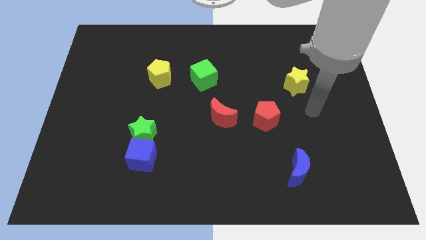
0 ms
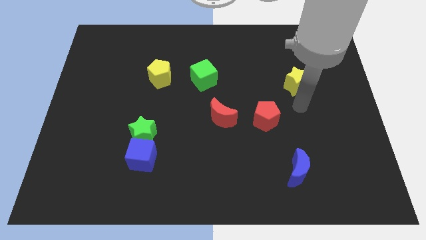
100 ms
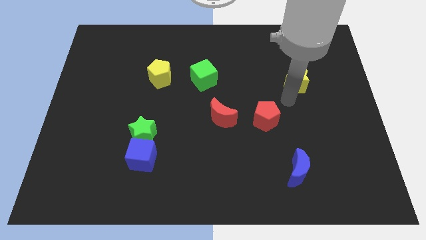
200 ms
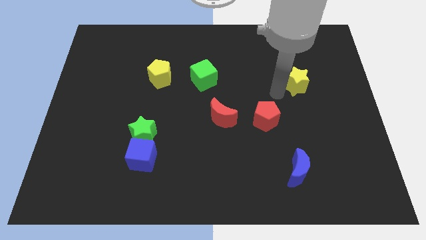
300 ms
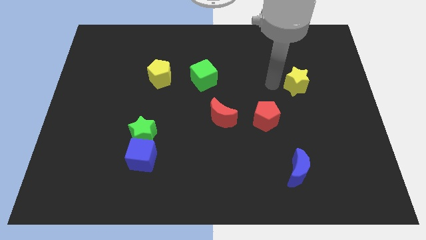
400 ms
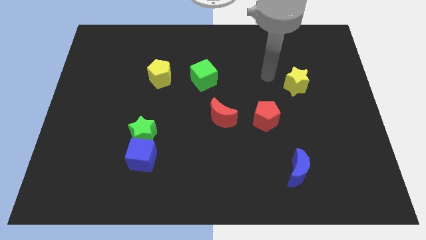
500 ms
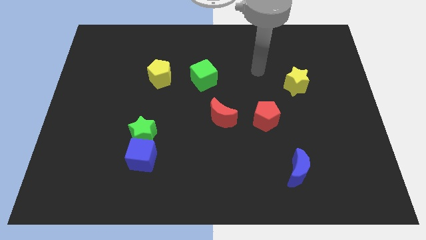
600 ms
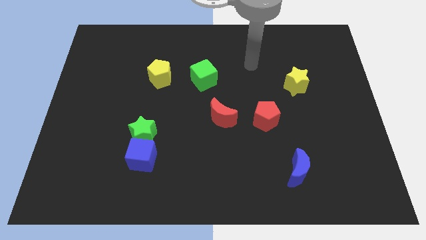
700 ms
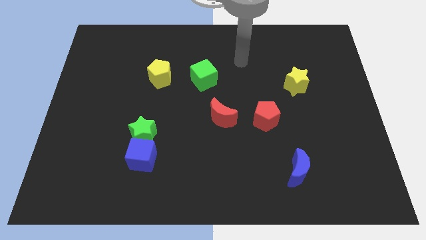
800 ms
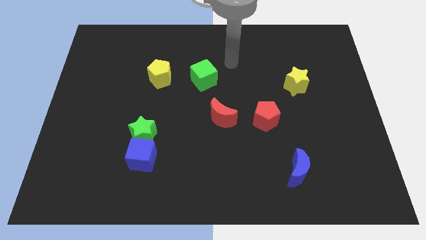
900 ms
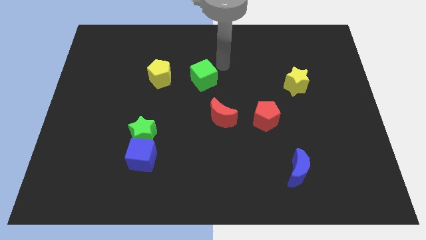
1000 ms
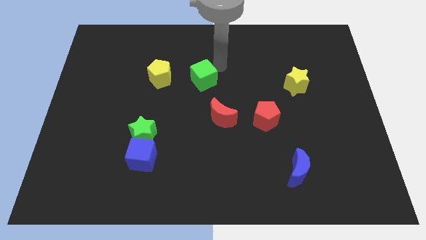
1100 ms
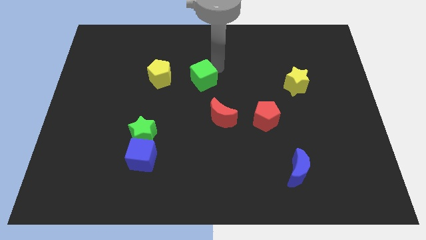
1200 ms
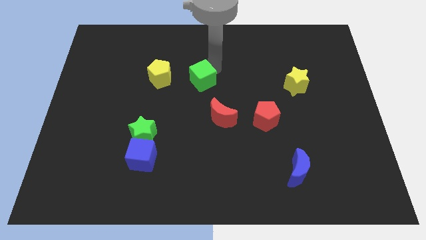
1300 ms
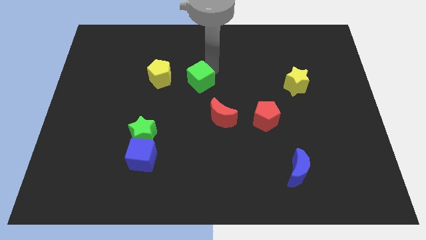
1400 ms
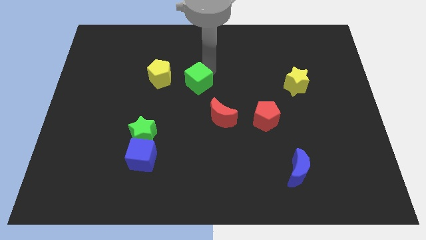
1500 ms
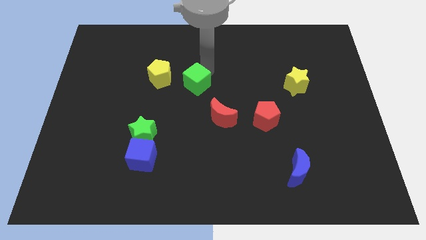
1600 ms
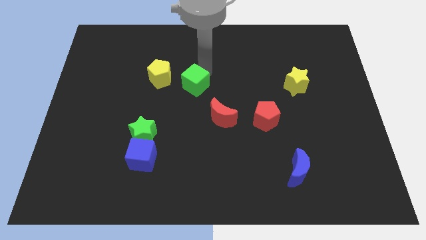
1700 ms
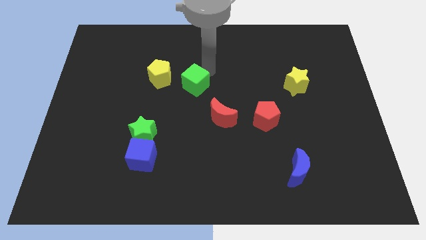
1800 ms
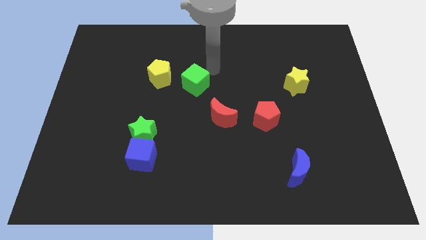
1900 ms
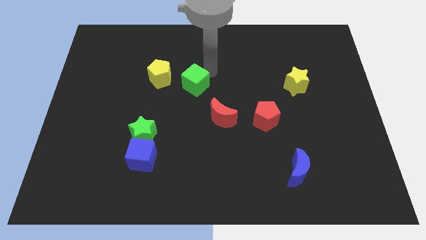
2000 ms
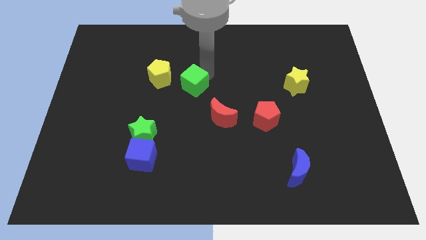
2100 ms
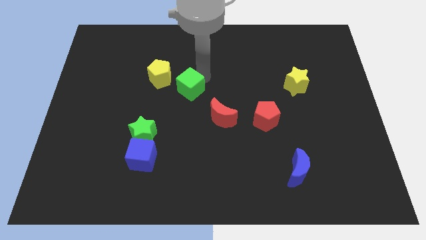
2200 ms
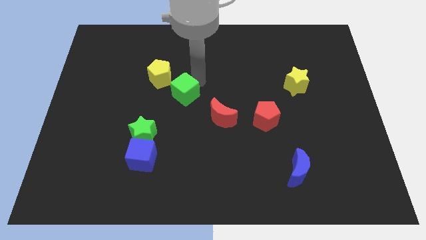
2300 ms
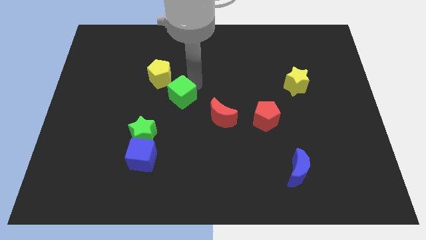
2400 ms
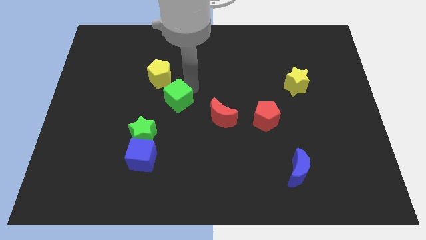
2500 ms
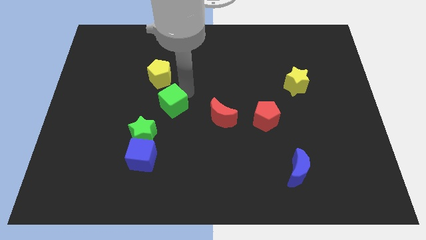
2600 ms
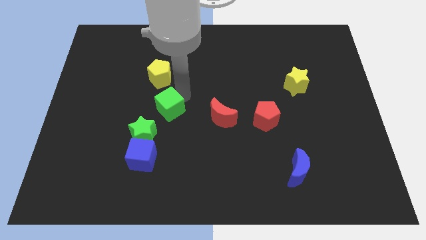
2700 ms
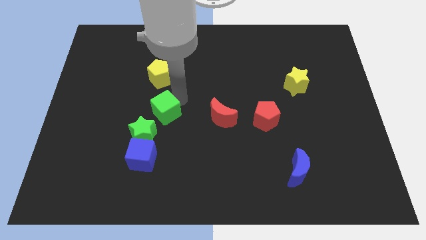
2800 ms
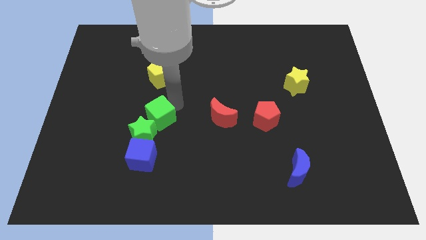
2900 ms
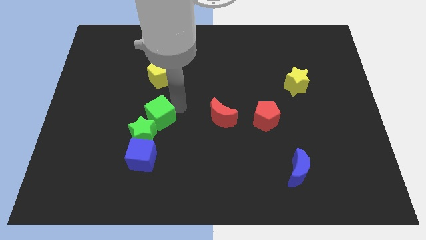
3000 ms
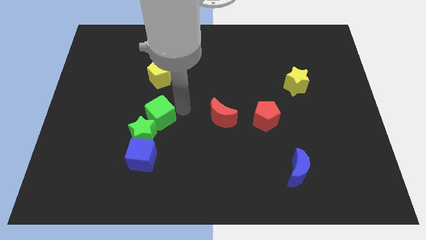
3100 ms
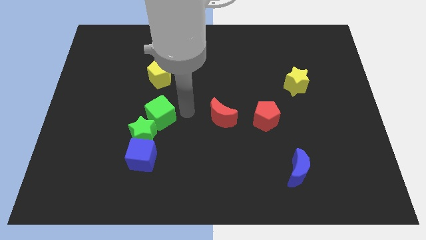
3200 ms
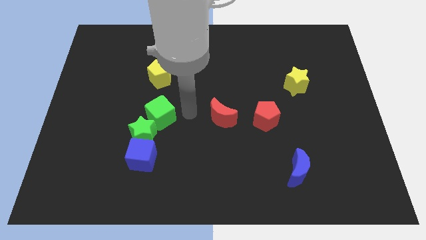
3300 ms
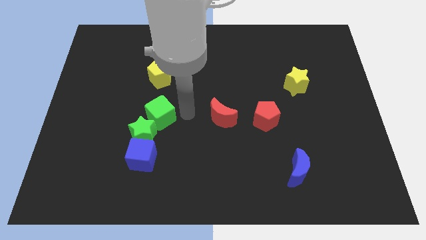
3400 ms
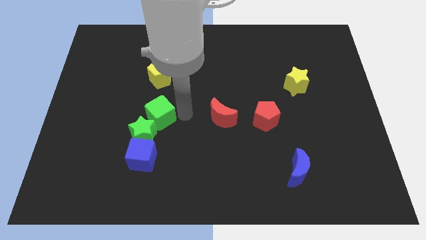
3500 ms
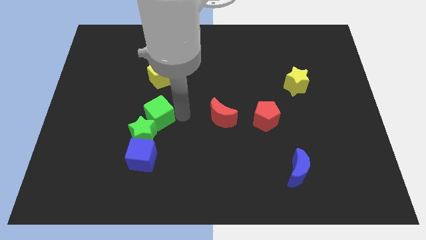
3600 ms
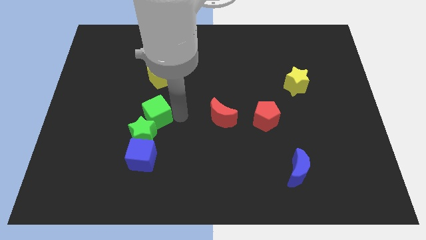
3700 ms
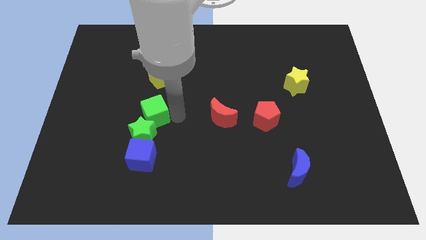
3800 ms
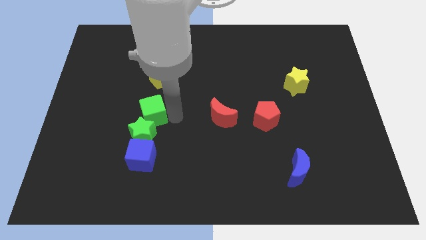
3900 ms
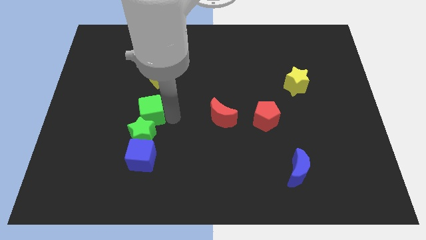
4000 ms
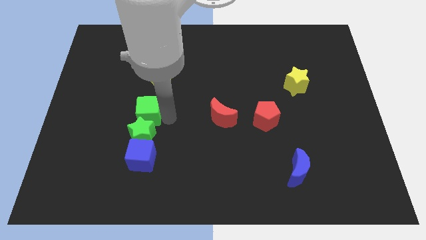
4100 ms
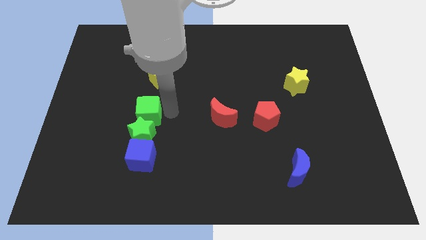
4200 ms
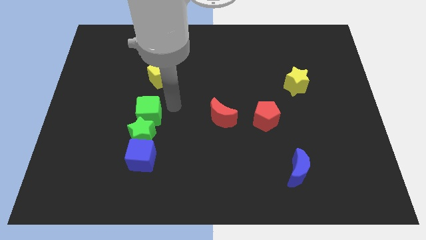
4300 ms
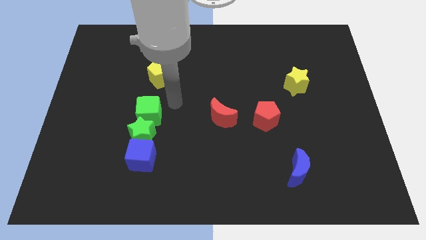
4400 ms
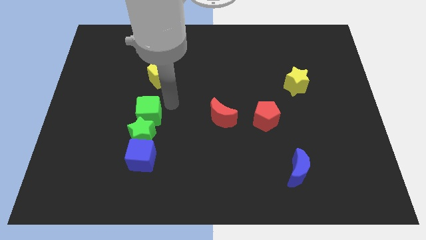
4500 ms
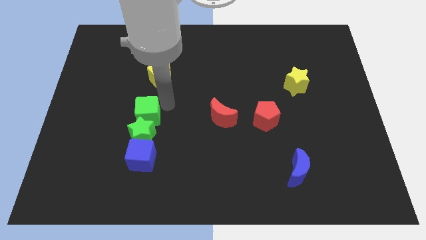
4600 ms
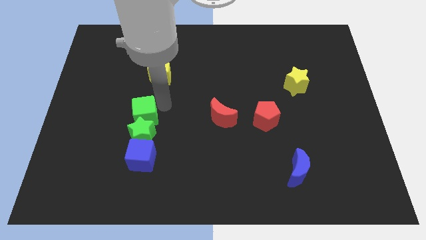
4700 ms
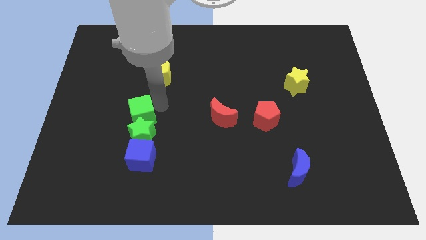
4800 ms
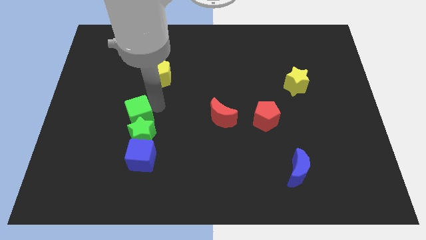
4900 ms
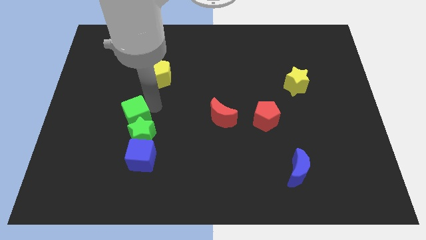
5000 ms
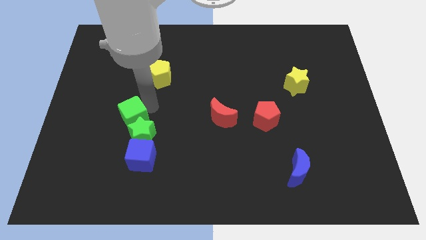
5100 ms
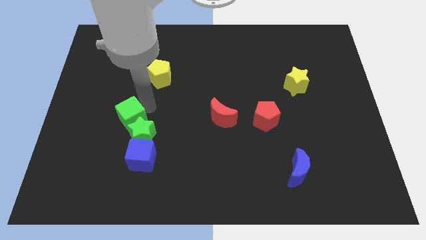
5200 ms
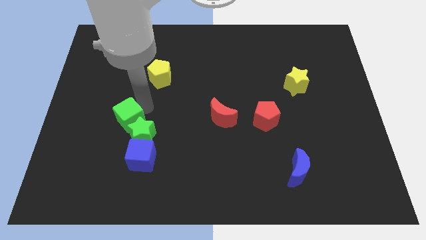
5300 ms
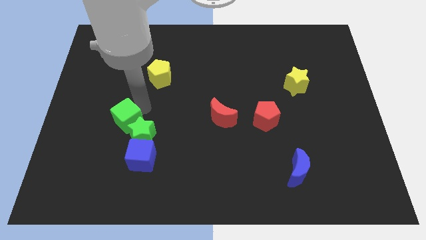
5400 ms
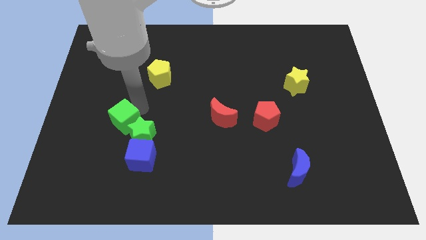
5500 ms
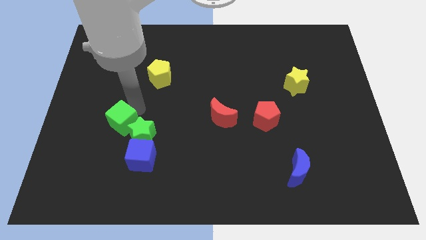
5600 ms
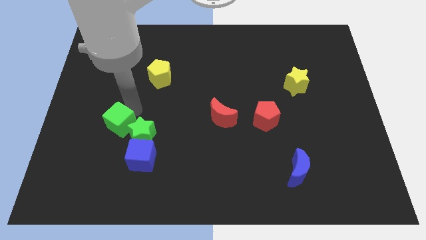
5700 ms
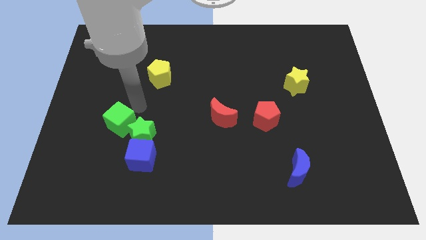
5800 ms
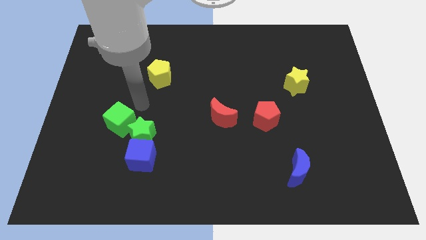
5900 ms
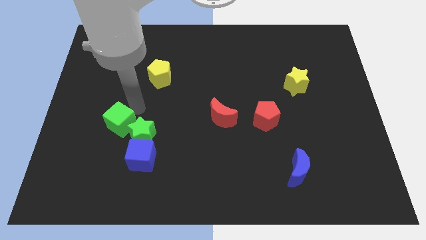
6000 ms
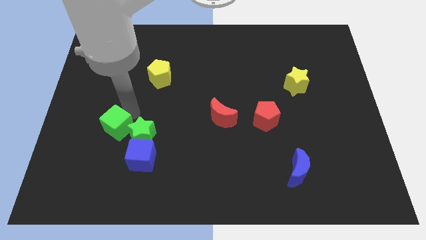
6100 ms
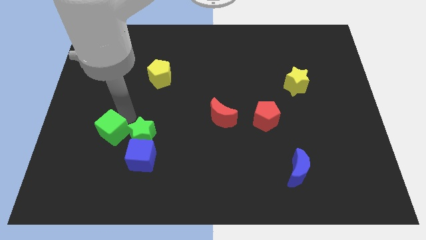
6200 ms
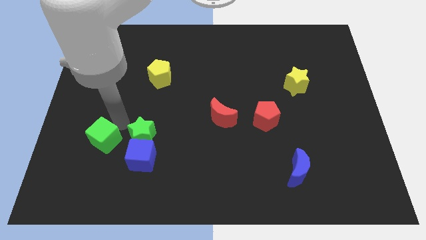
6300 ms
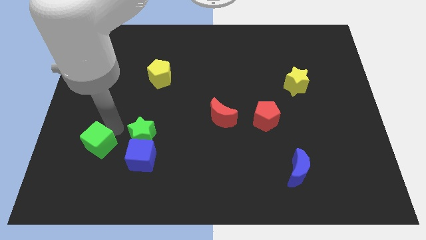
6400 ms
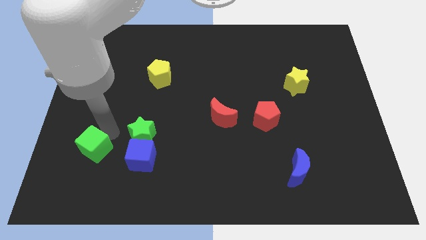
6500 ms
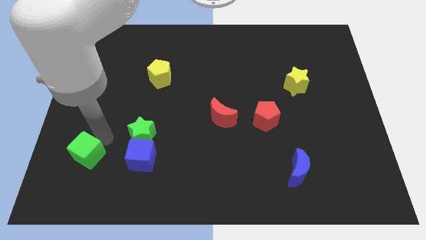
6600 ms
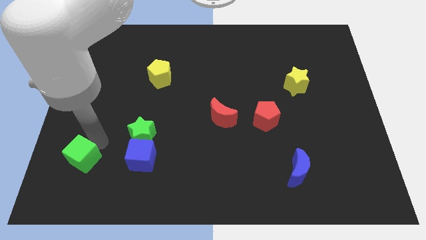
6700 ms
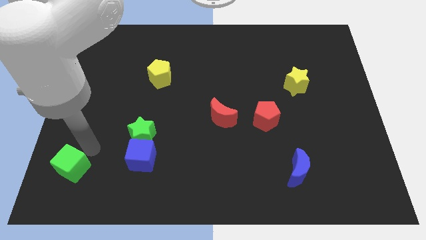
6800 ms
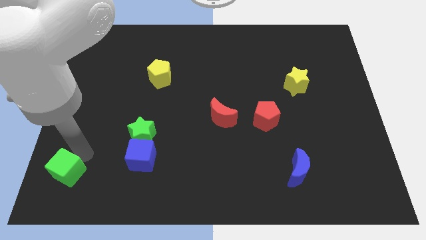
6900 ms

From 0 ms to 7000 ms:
put the green cube to the bottom left
